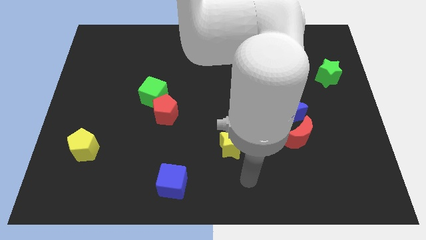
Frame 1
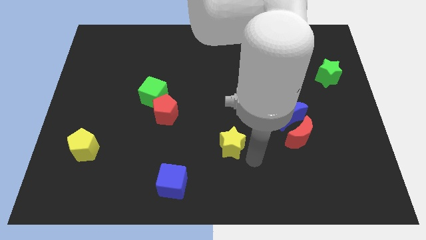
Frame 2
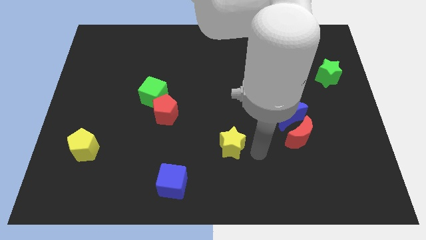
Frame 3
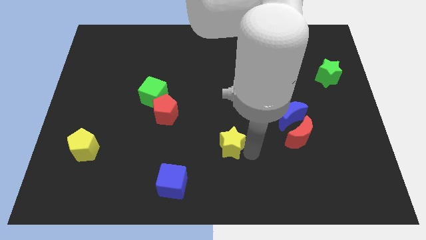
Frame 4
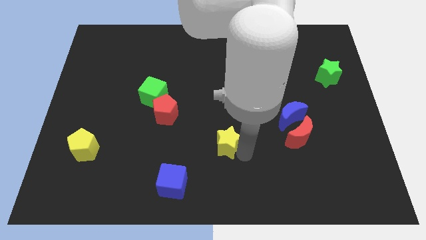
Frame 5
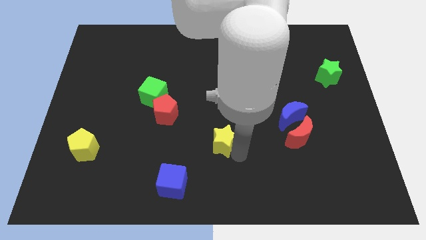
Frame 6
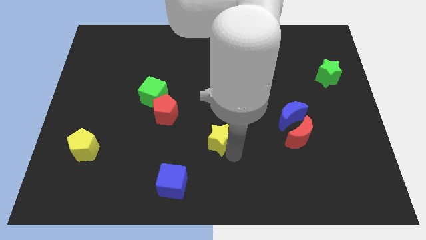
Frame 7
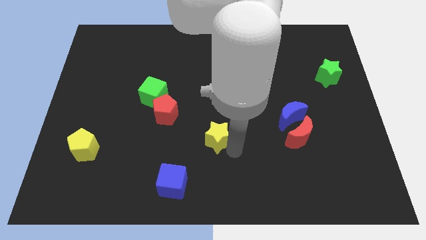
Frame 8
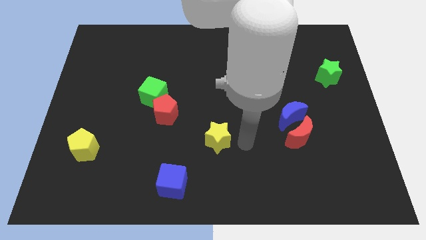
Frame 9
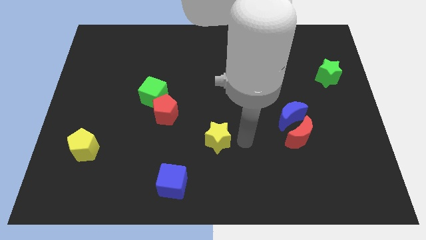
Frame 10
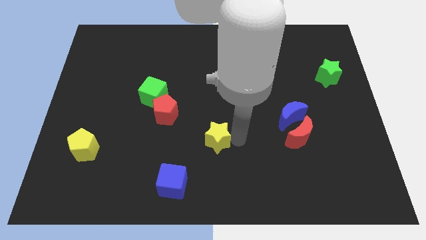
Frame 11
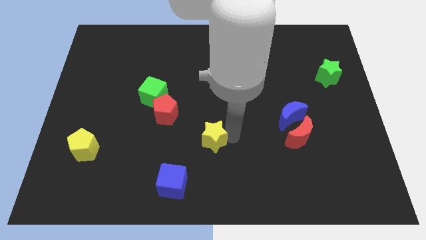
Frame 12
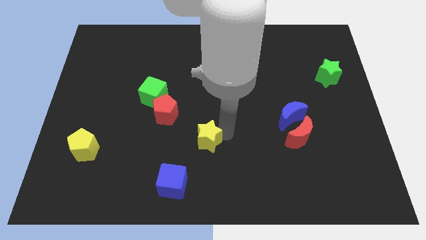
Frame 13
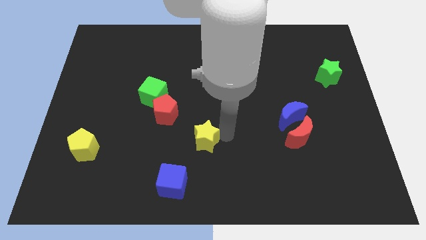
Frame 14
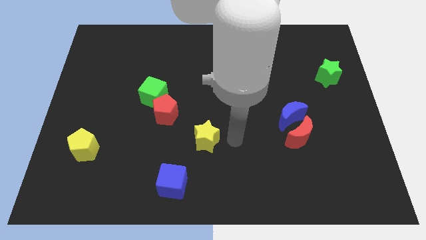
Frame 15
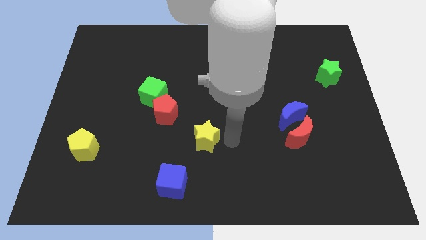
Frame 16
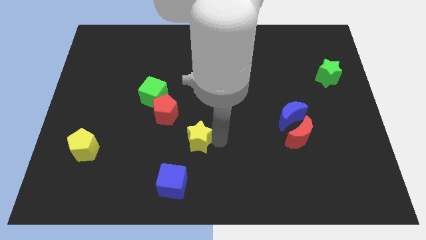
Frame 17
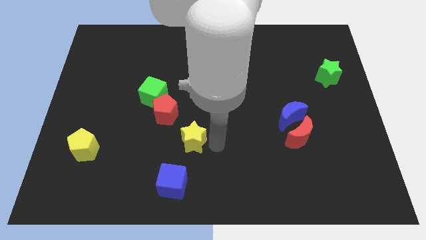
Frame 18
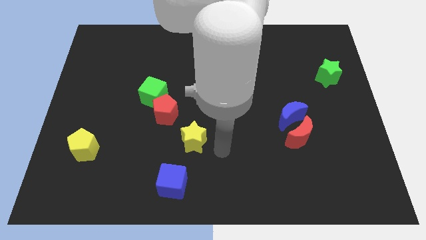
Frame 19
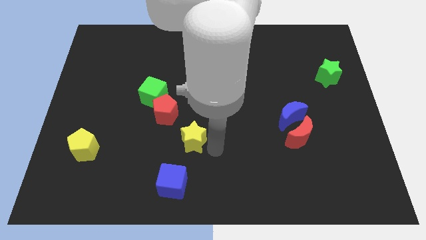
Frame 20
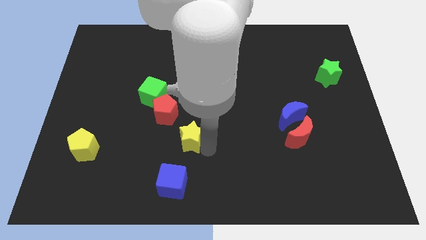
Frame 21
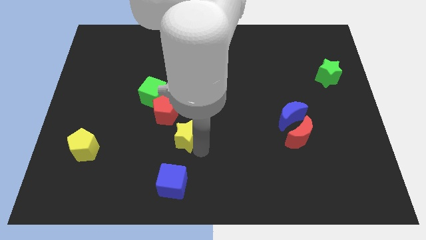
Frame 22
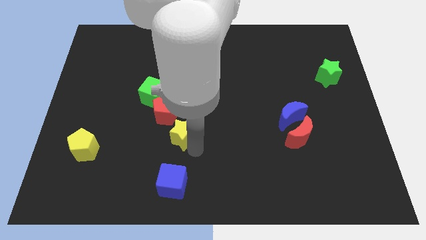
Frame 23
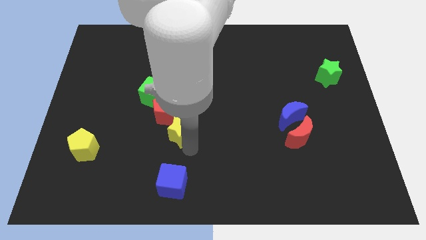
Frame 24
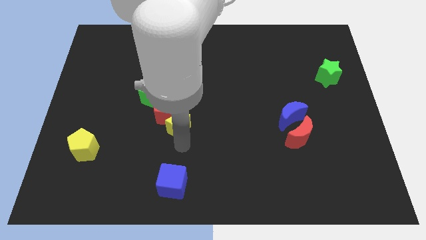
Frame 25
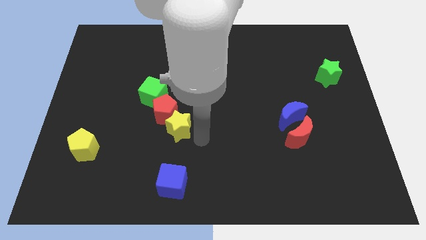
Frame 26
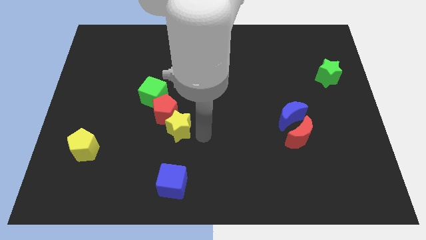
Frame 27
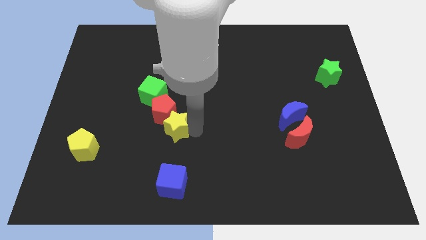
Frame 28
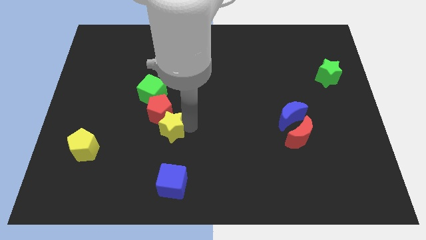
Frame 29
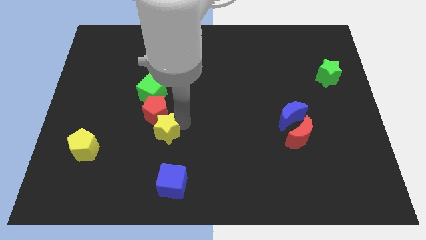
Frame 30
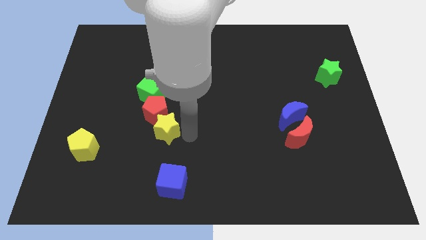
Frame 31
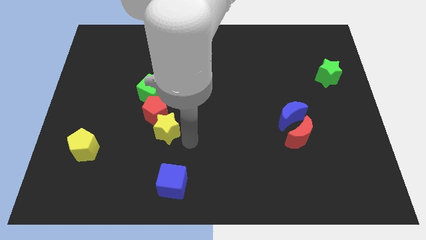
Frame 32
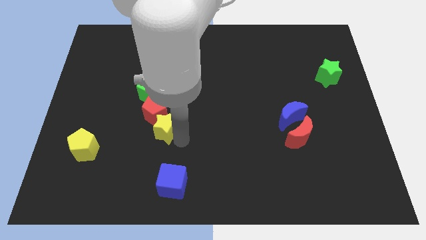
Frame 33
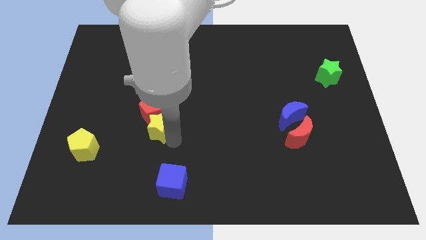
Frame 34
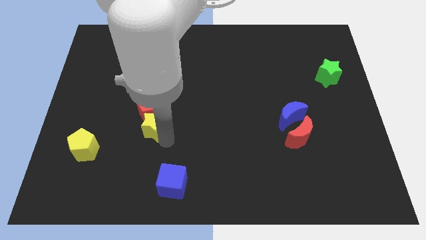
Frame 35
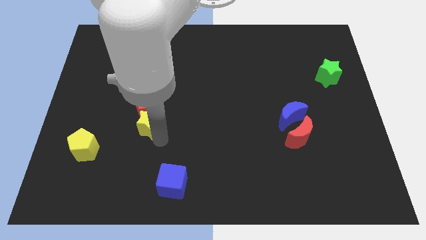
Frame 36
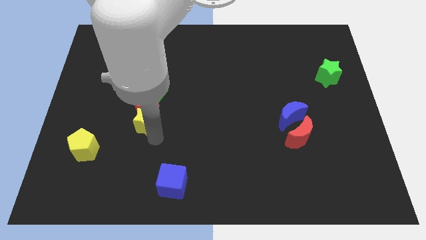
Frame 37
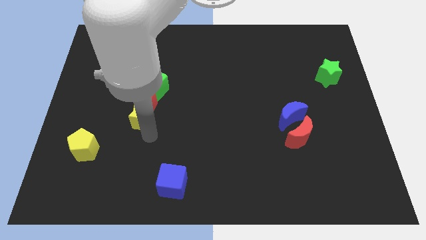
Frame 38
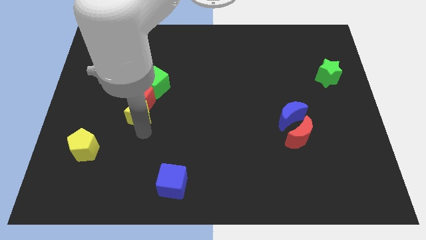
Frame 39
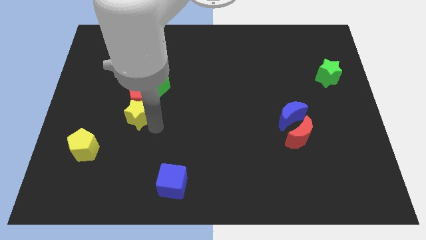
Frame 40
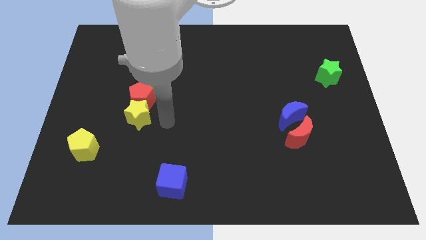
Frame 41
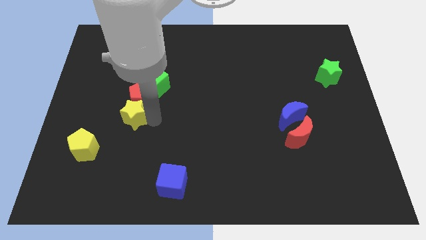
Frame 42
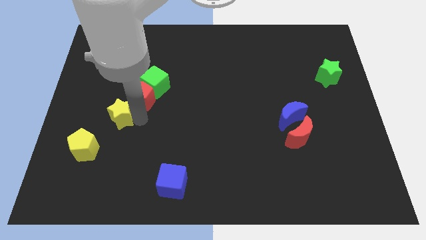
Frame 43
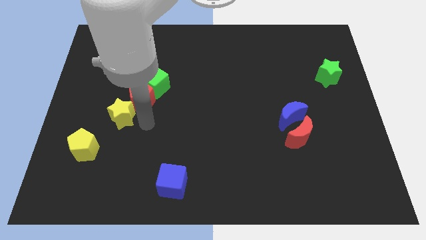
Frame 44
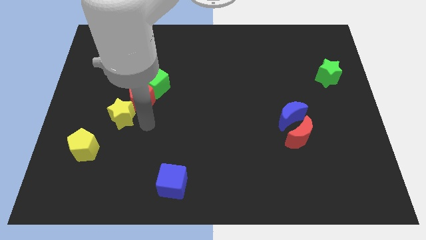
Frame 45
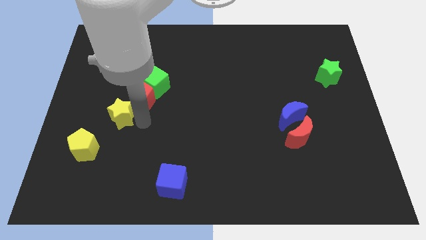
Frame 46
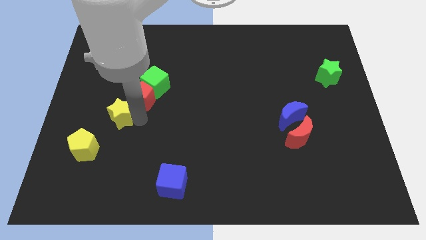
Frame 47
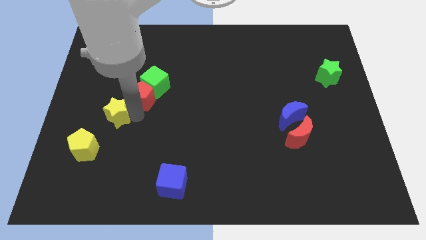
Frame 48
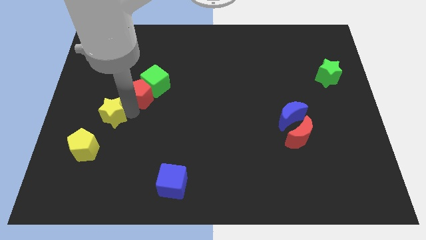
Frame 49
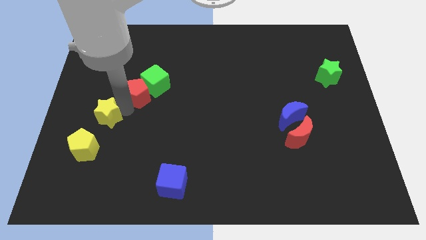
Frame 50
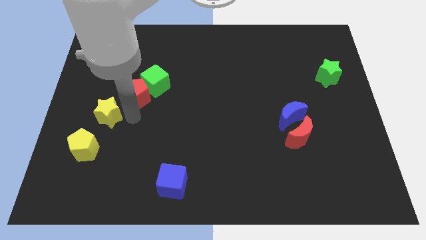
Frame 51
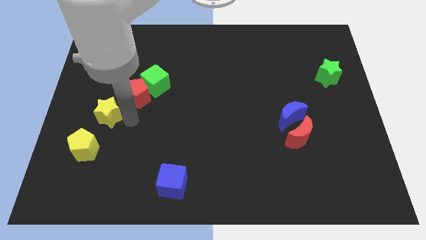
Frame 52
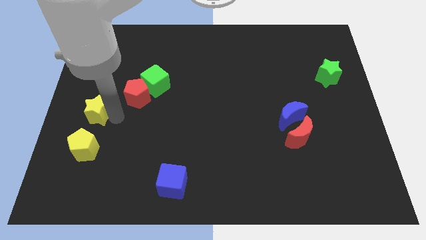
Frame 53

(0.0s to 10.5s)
put the yellow star to the left side of the board

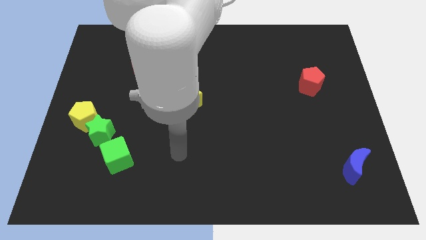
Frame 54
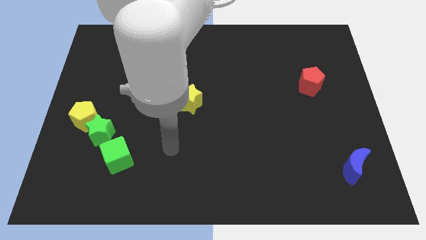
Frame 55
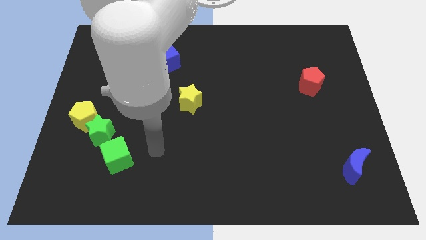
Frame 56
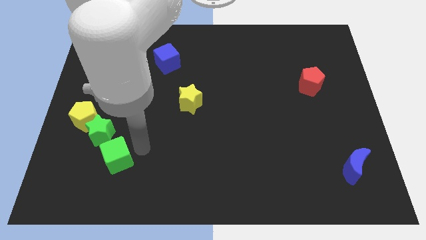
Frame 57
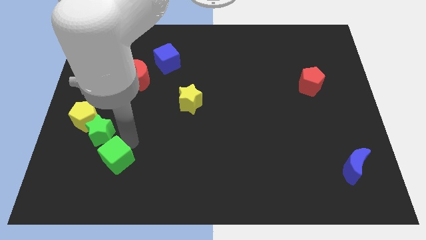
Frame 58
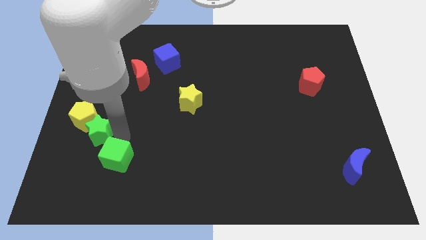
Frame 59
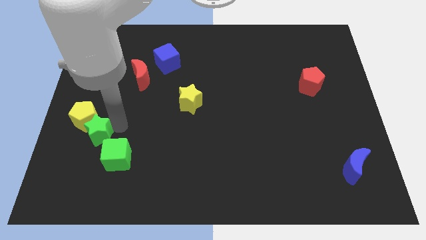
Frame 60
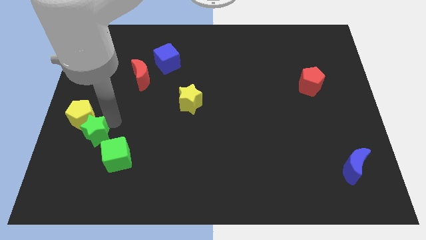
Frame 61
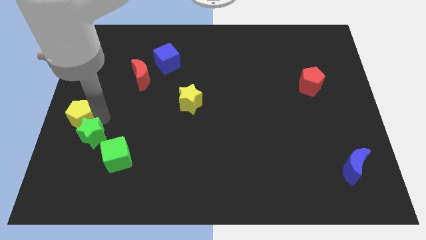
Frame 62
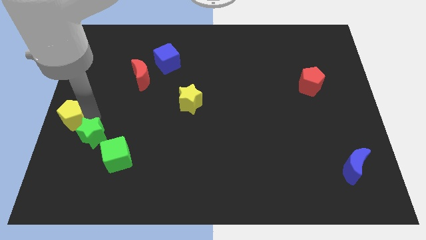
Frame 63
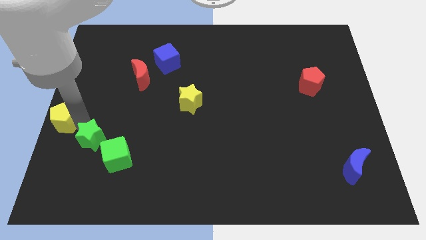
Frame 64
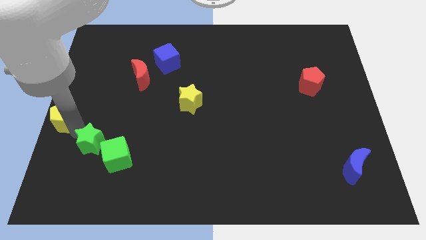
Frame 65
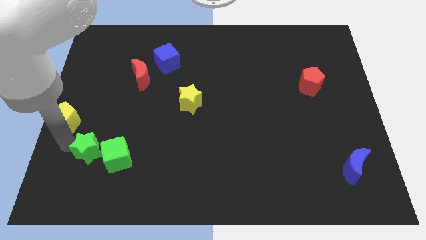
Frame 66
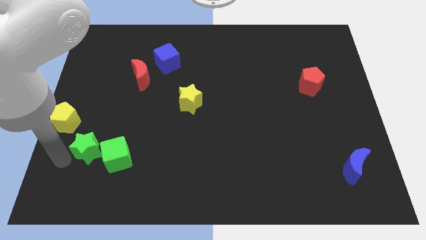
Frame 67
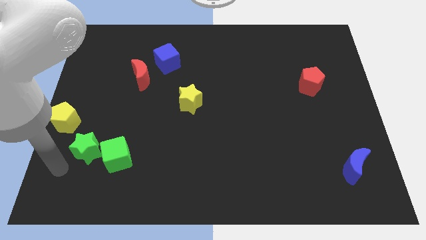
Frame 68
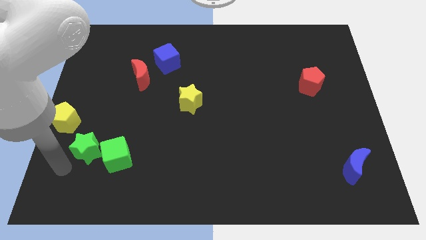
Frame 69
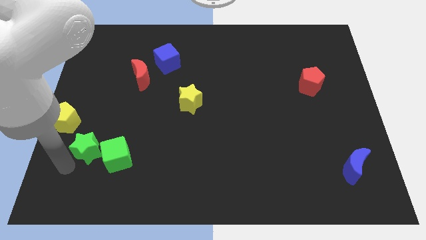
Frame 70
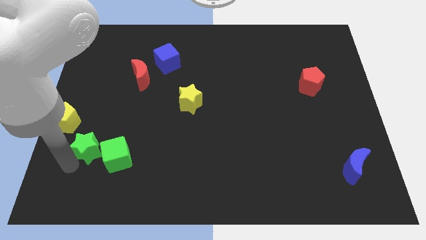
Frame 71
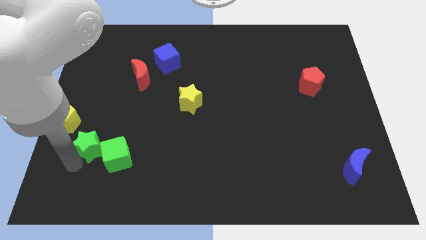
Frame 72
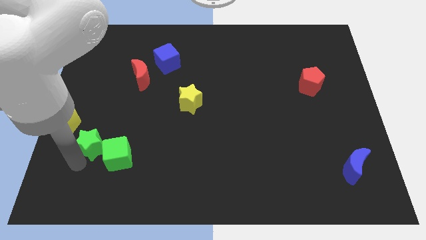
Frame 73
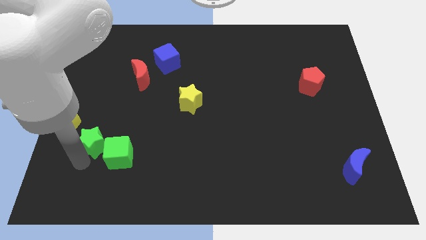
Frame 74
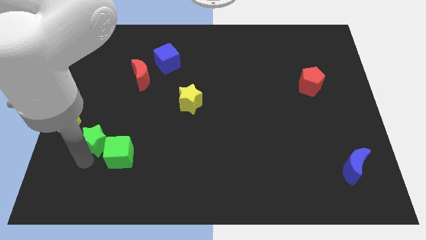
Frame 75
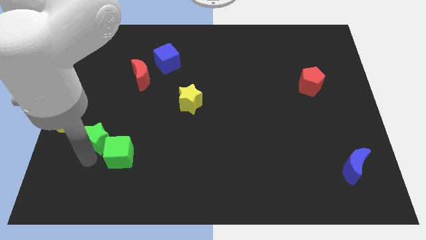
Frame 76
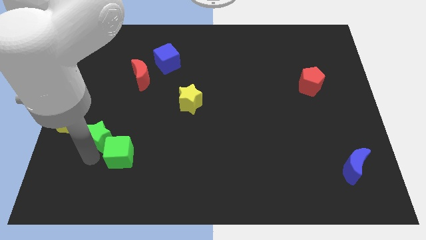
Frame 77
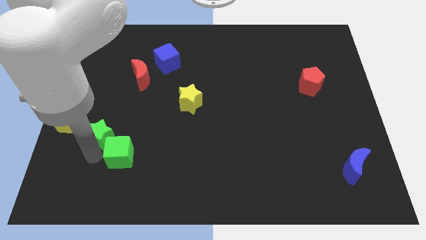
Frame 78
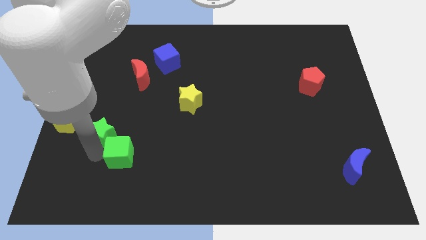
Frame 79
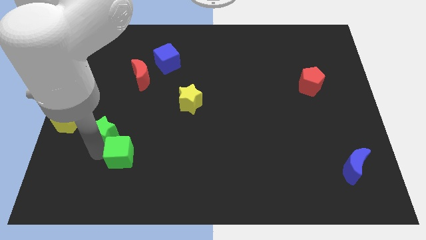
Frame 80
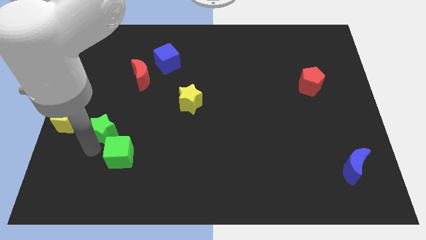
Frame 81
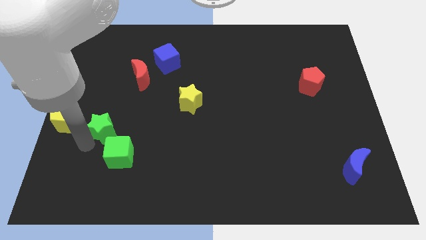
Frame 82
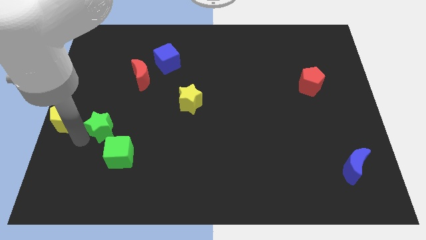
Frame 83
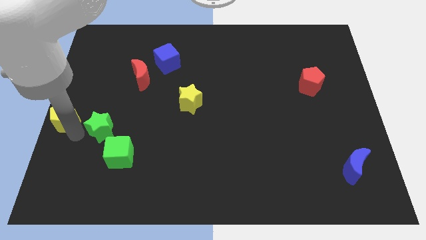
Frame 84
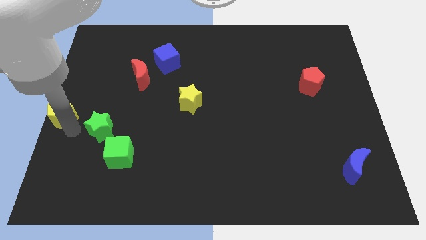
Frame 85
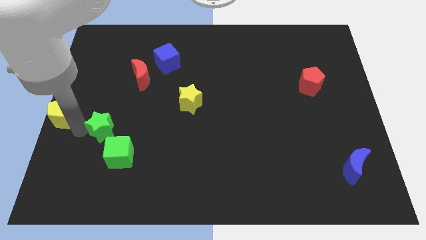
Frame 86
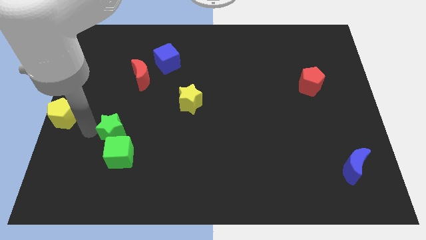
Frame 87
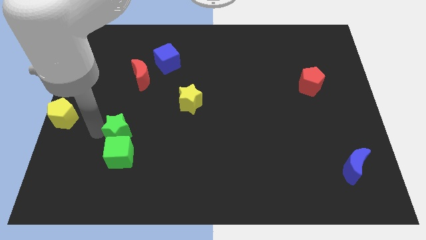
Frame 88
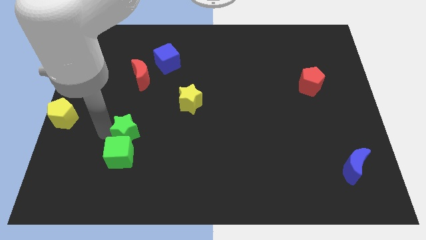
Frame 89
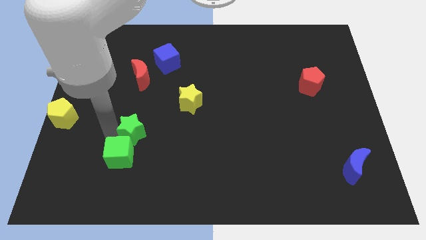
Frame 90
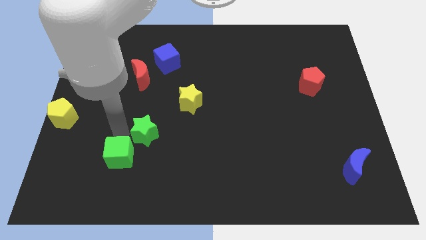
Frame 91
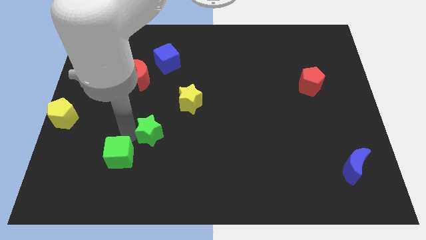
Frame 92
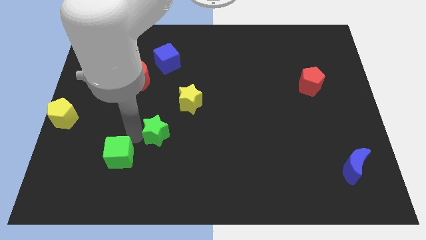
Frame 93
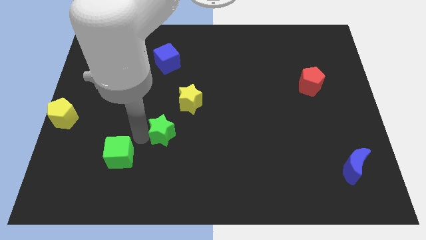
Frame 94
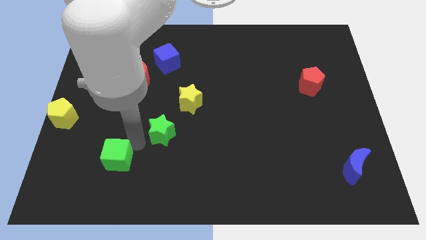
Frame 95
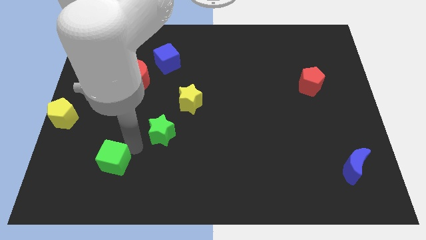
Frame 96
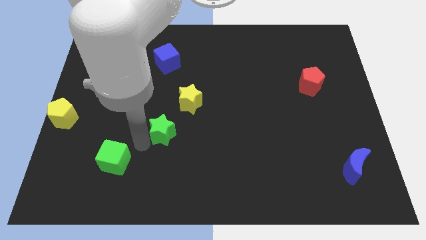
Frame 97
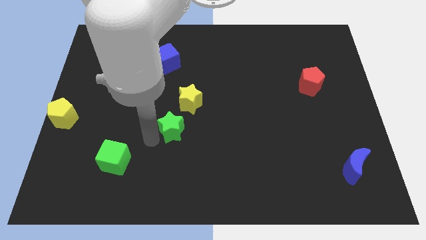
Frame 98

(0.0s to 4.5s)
slide the green star to the center
